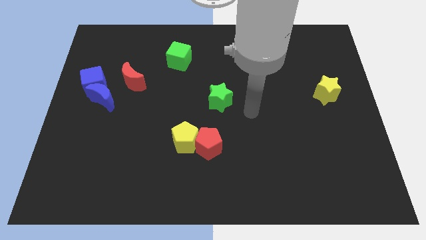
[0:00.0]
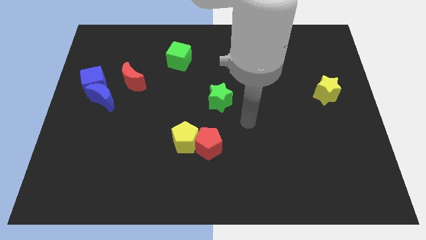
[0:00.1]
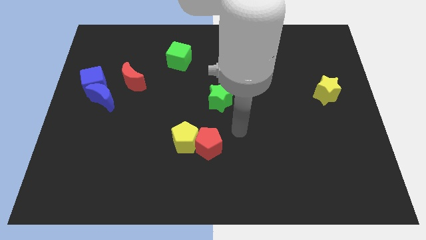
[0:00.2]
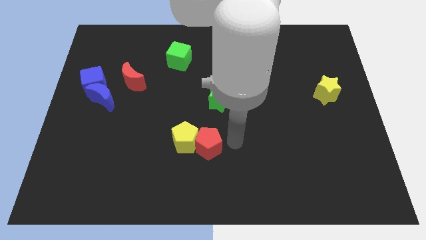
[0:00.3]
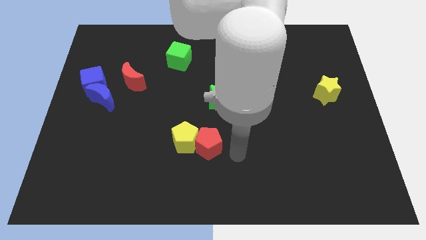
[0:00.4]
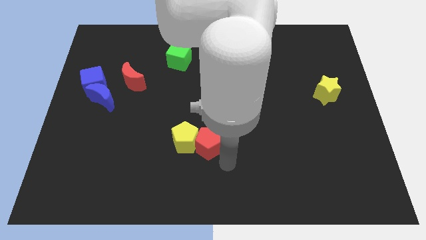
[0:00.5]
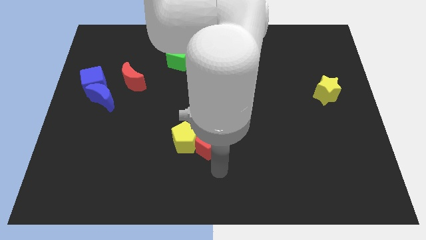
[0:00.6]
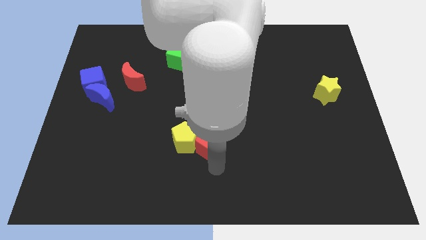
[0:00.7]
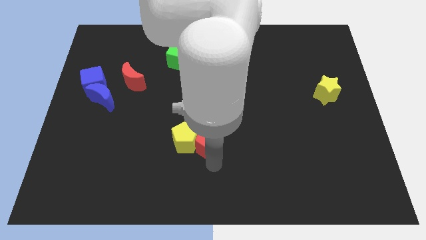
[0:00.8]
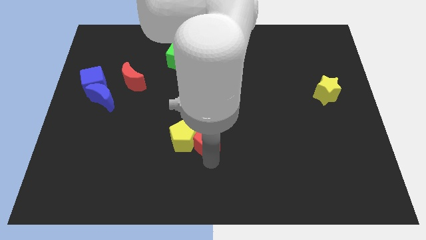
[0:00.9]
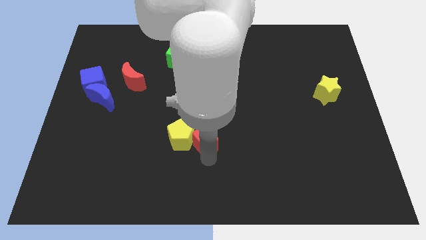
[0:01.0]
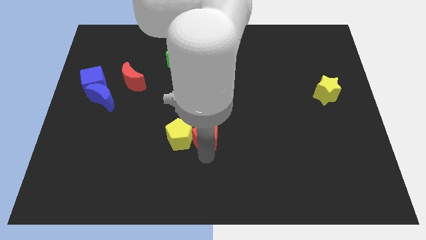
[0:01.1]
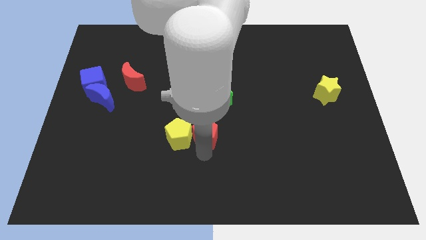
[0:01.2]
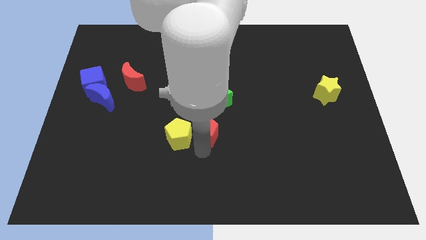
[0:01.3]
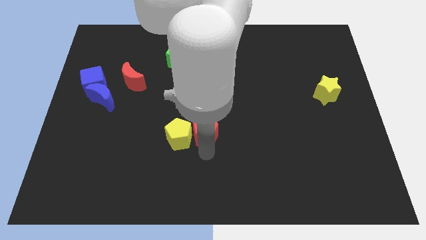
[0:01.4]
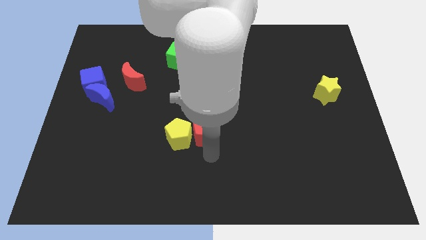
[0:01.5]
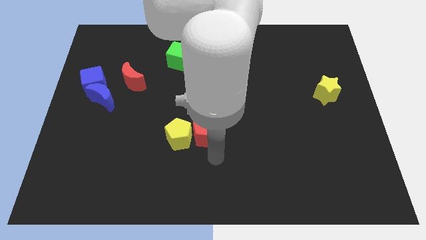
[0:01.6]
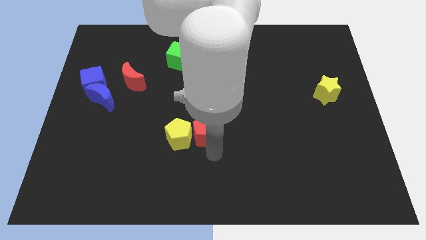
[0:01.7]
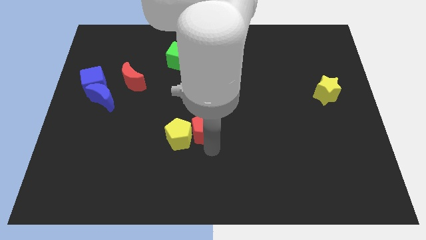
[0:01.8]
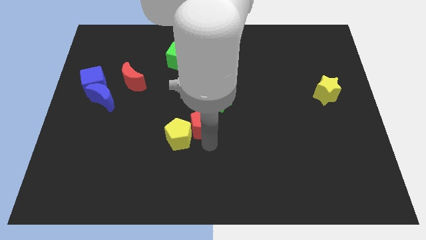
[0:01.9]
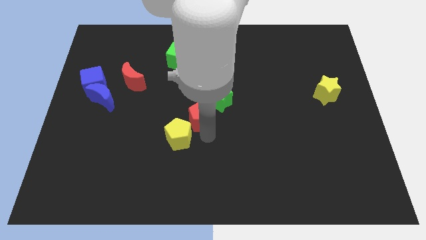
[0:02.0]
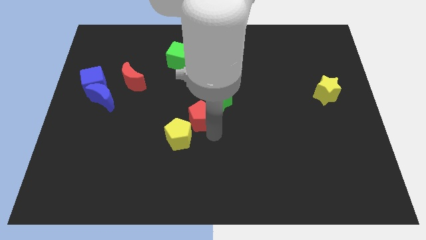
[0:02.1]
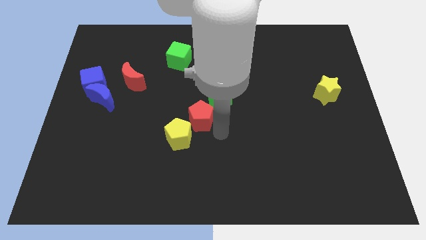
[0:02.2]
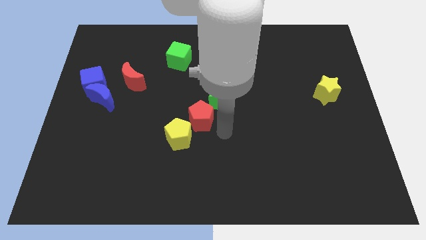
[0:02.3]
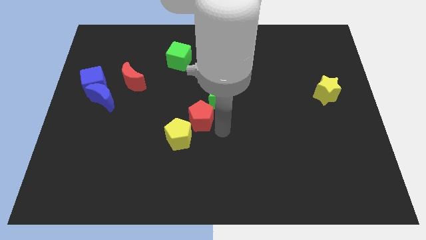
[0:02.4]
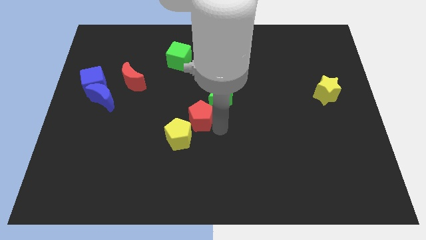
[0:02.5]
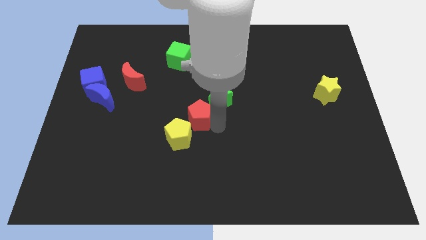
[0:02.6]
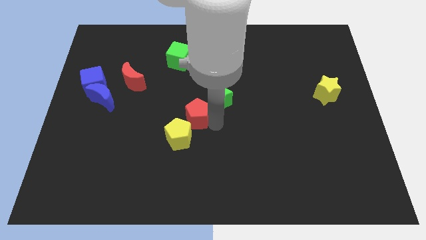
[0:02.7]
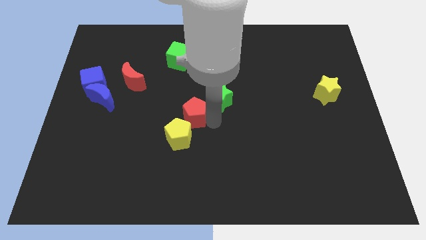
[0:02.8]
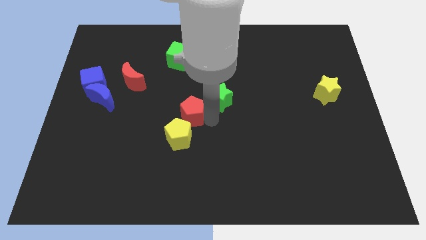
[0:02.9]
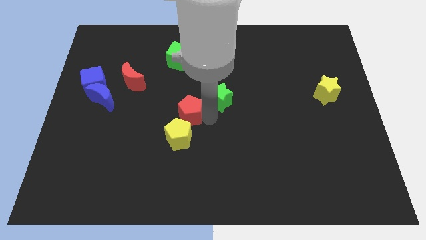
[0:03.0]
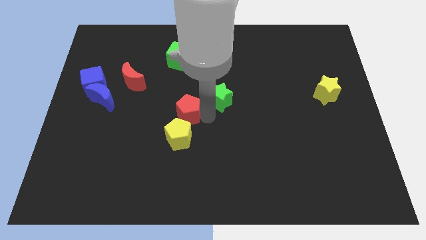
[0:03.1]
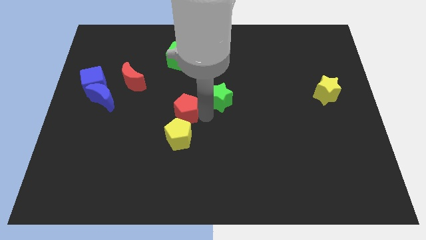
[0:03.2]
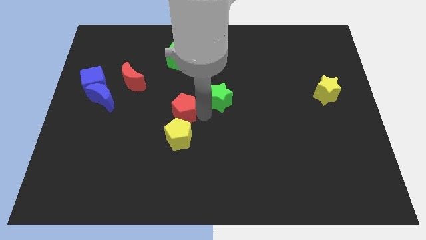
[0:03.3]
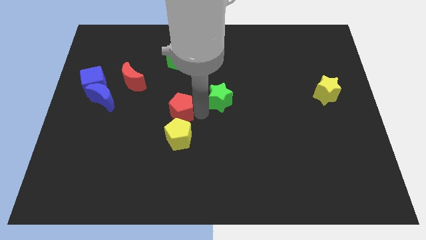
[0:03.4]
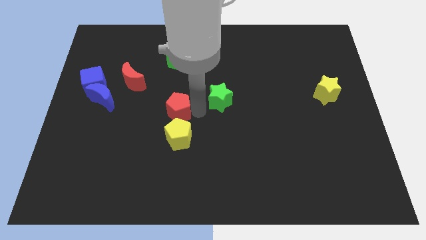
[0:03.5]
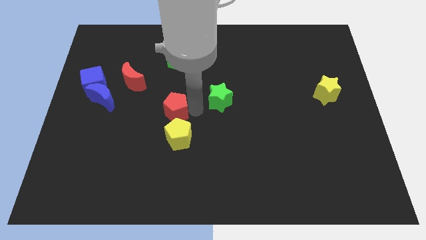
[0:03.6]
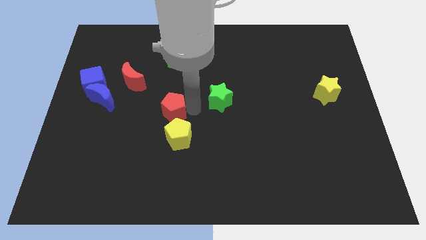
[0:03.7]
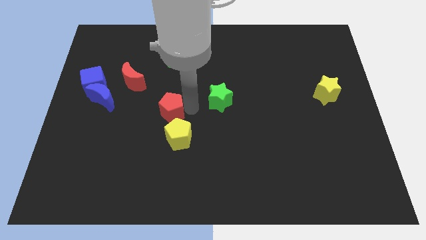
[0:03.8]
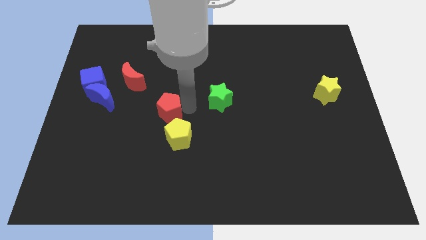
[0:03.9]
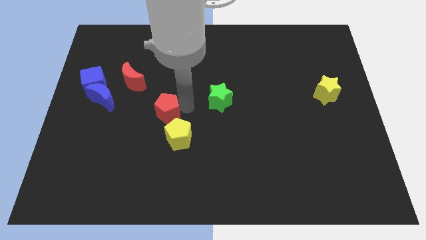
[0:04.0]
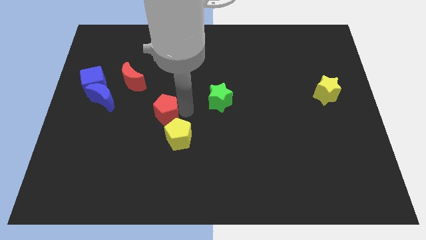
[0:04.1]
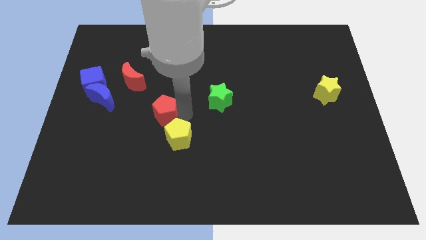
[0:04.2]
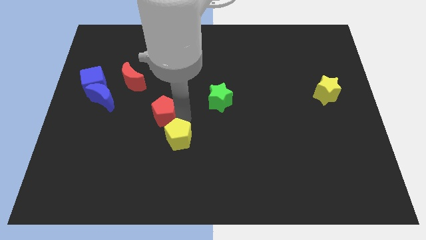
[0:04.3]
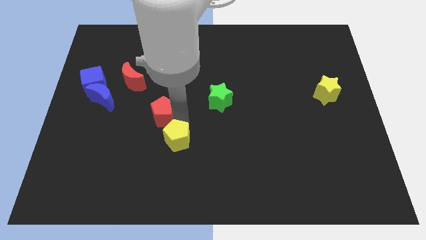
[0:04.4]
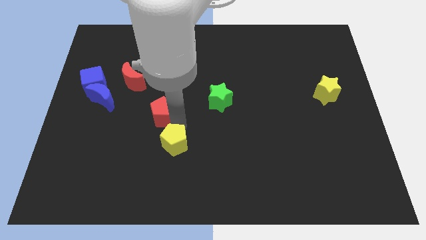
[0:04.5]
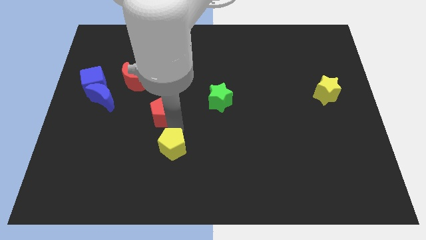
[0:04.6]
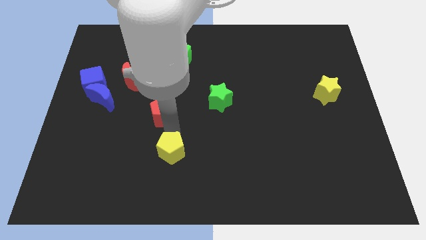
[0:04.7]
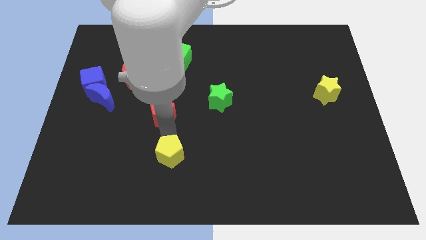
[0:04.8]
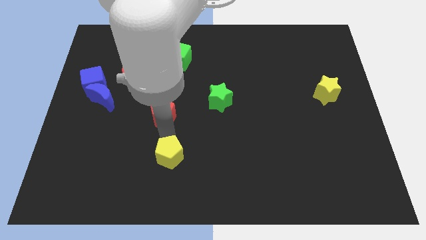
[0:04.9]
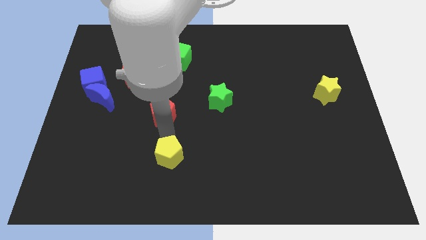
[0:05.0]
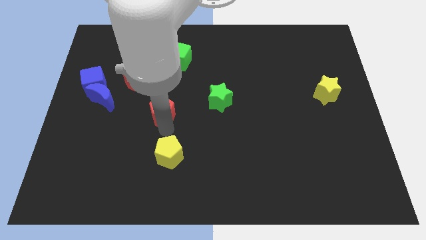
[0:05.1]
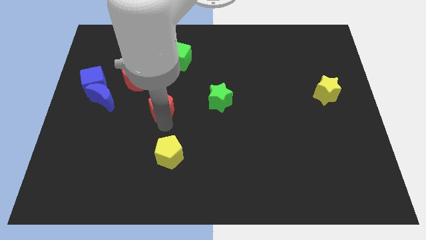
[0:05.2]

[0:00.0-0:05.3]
slide the red pentagon to the right of the blue moon

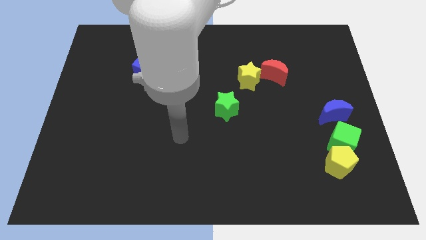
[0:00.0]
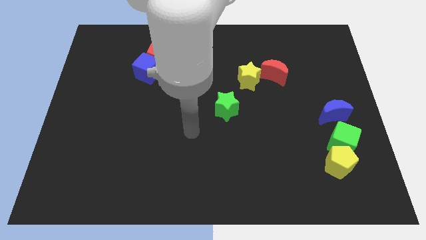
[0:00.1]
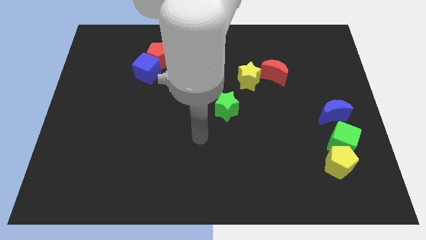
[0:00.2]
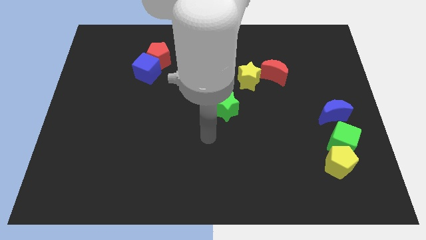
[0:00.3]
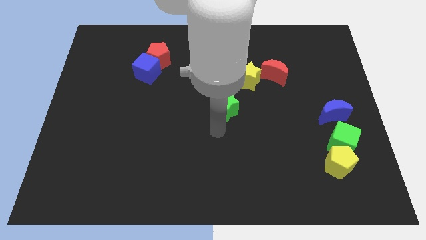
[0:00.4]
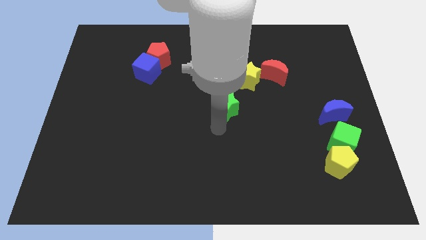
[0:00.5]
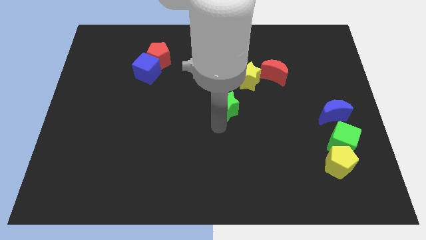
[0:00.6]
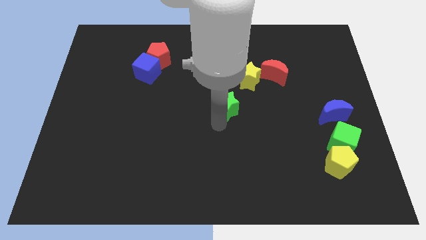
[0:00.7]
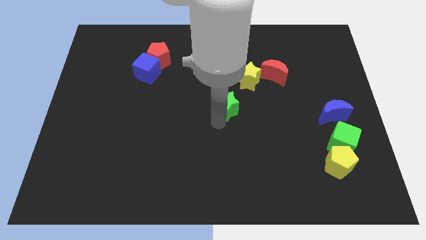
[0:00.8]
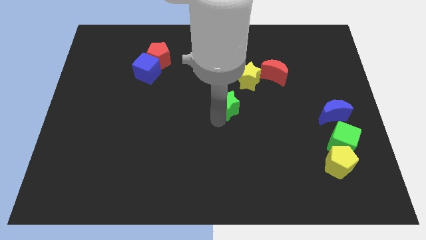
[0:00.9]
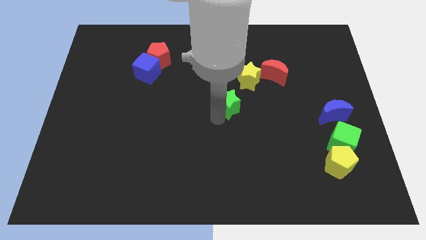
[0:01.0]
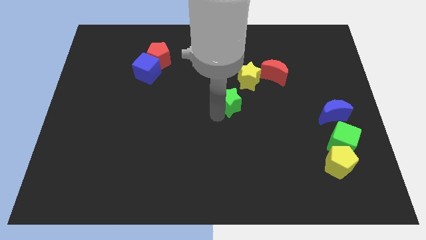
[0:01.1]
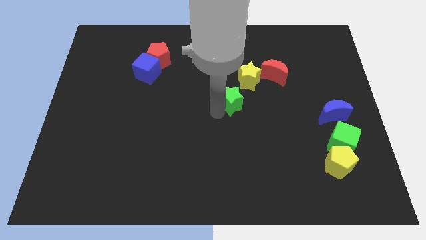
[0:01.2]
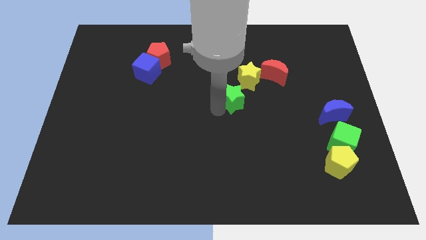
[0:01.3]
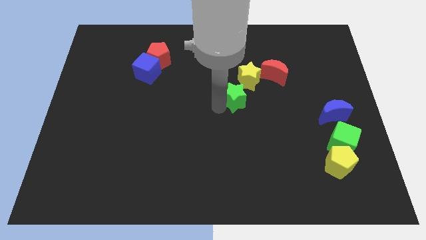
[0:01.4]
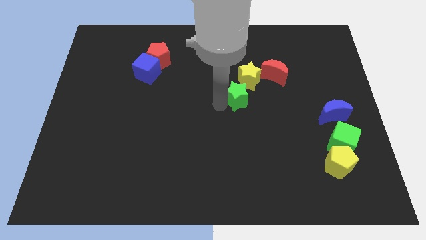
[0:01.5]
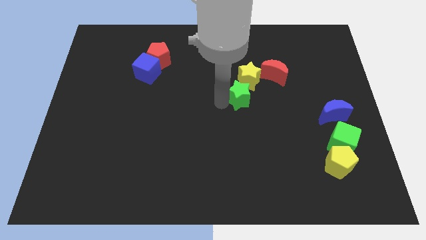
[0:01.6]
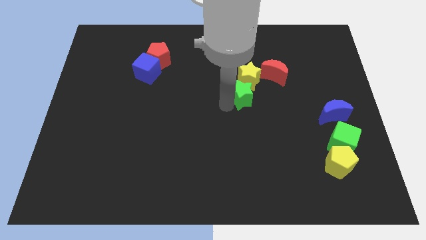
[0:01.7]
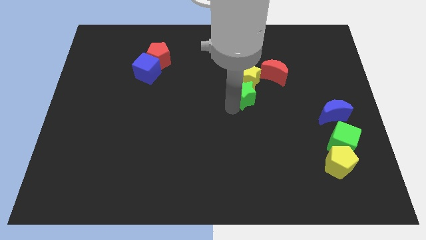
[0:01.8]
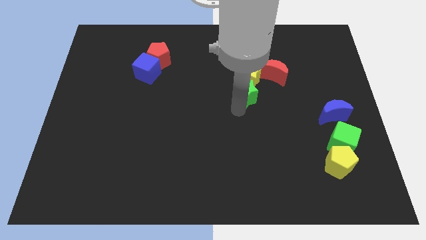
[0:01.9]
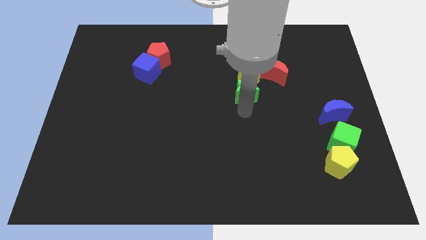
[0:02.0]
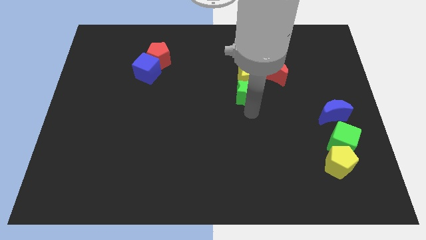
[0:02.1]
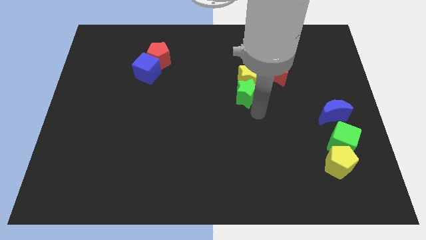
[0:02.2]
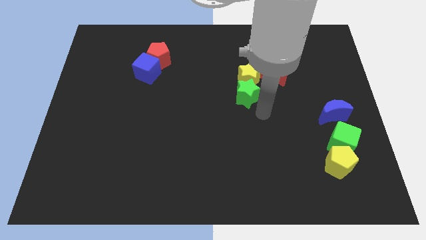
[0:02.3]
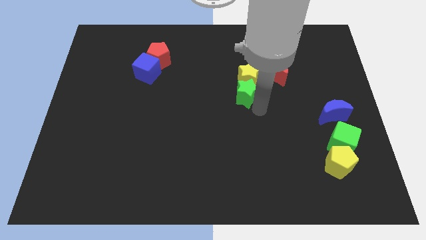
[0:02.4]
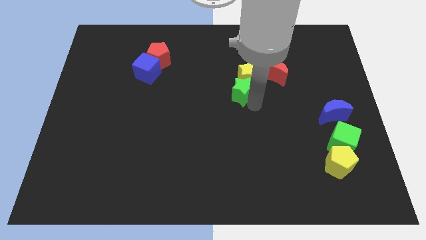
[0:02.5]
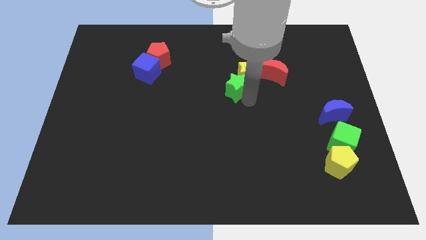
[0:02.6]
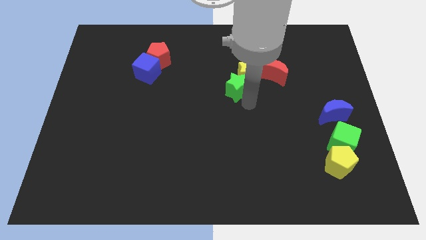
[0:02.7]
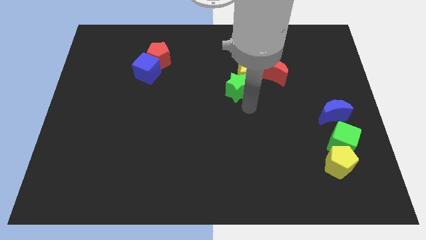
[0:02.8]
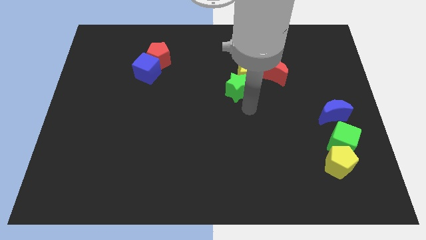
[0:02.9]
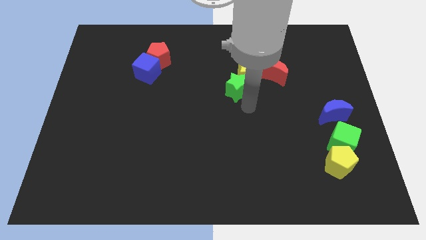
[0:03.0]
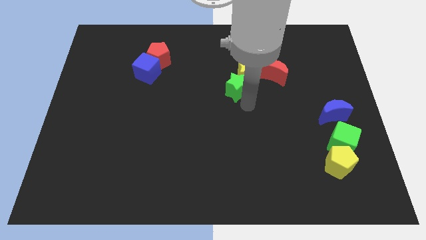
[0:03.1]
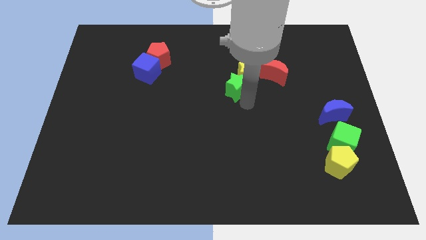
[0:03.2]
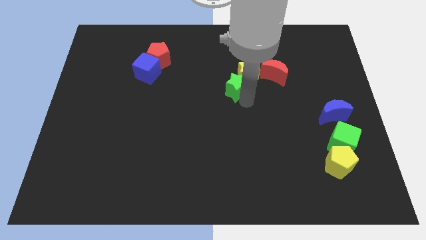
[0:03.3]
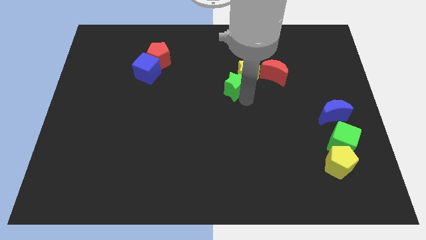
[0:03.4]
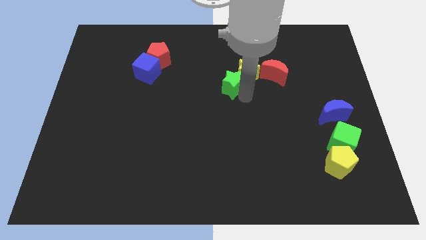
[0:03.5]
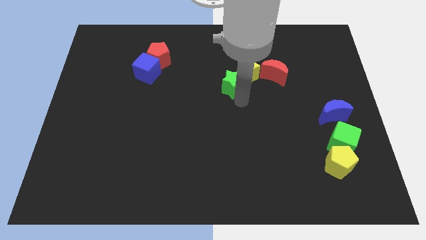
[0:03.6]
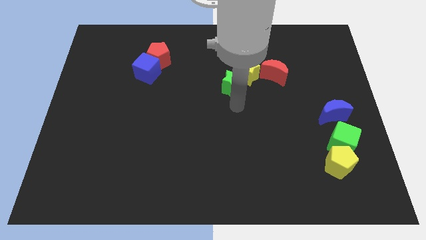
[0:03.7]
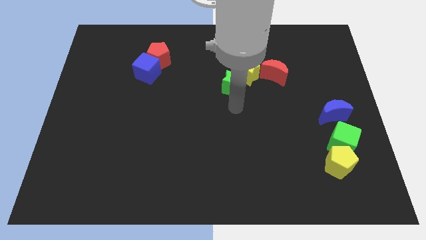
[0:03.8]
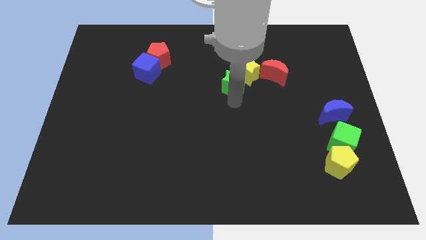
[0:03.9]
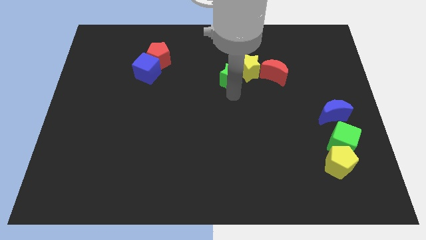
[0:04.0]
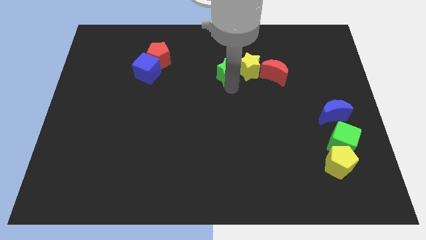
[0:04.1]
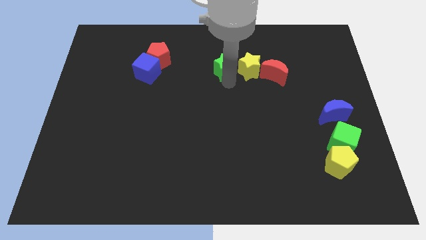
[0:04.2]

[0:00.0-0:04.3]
move the green star diagonally up and to the left of the yellow star
